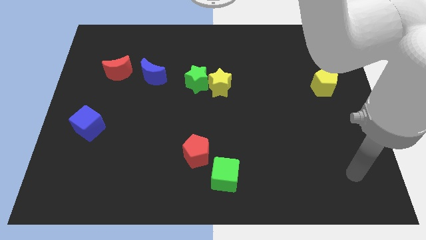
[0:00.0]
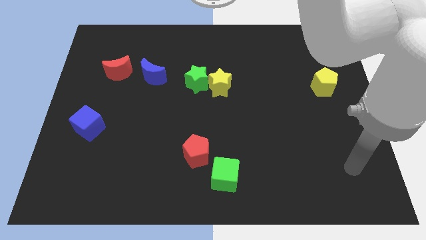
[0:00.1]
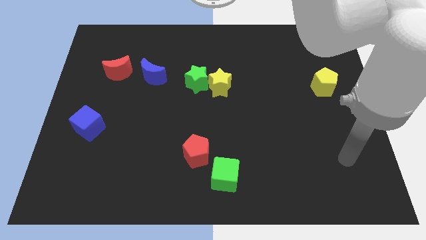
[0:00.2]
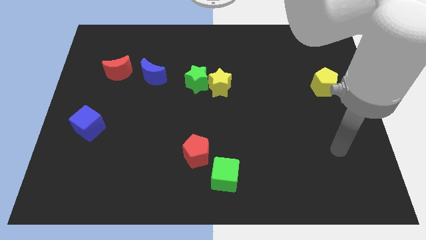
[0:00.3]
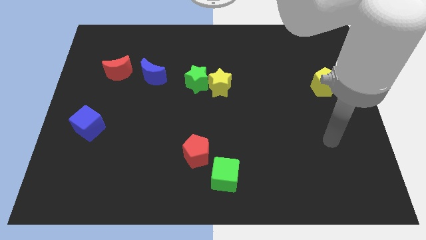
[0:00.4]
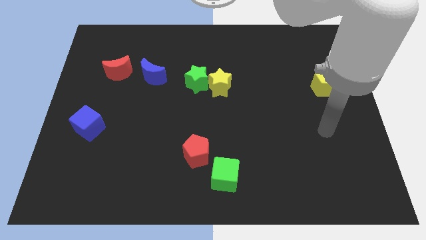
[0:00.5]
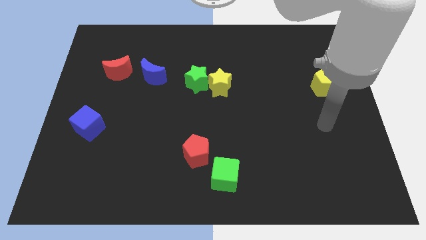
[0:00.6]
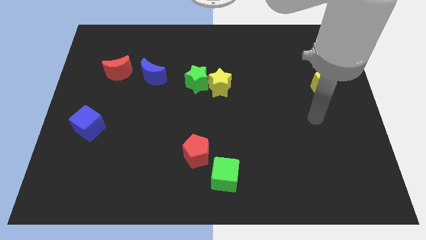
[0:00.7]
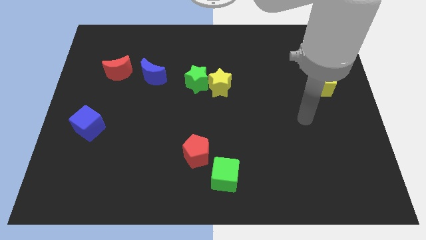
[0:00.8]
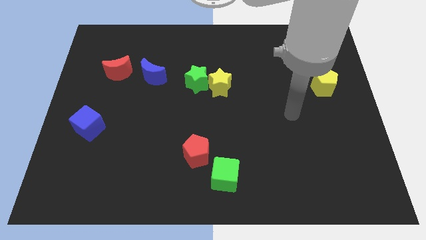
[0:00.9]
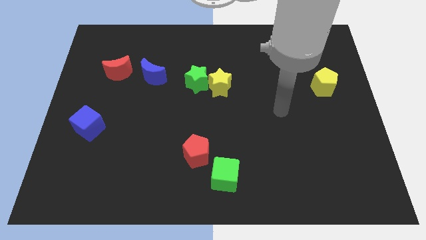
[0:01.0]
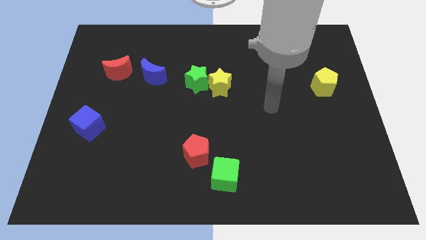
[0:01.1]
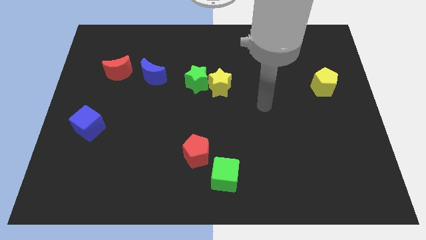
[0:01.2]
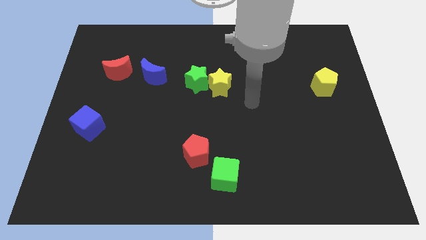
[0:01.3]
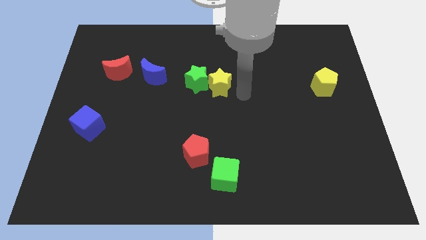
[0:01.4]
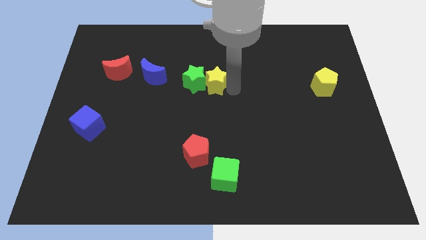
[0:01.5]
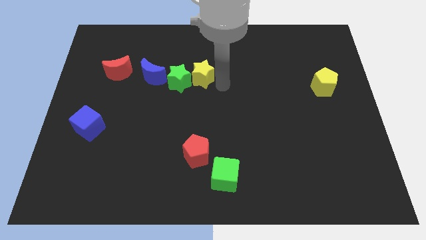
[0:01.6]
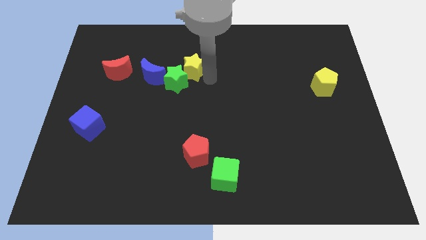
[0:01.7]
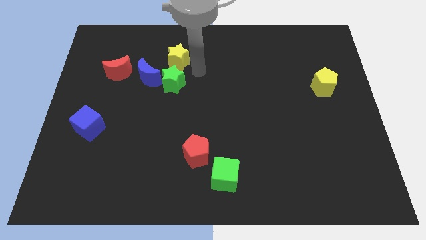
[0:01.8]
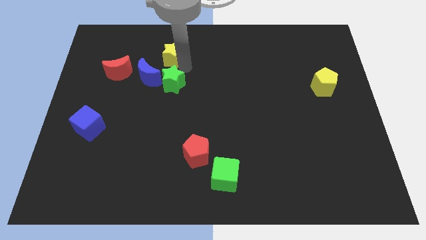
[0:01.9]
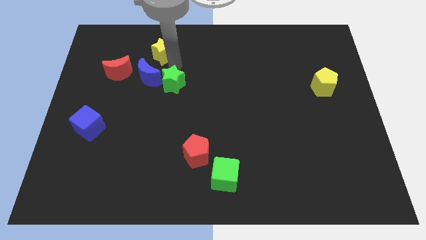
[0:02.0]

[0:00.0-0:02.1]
move the green star away from the yellow star

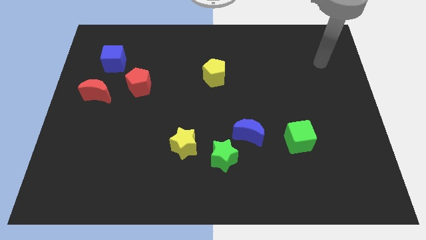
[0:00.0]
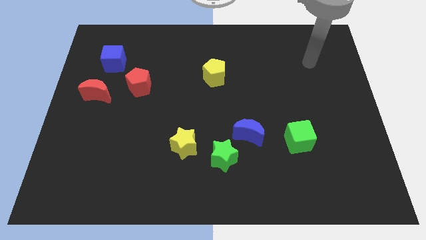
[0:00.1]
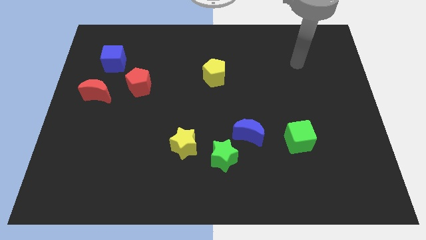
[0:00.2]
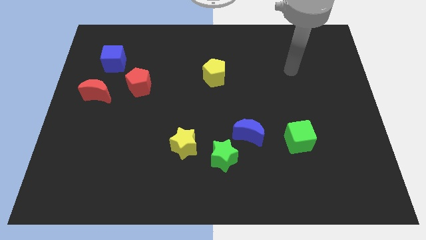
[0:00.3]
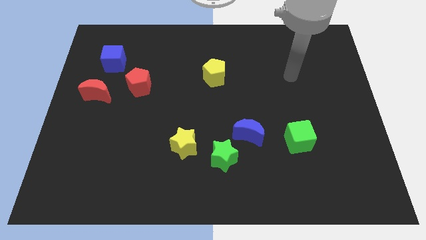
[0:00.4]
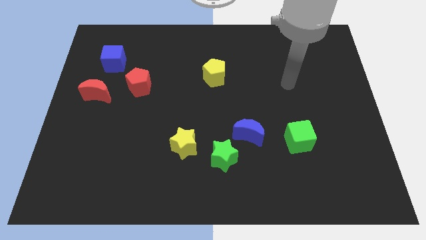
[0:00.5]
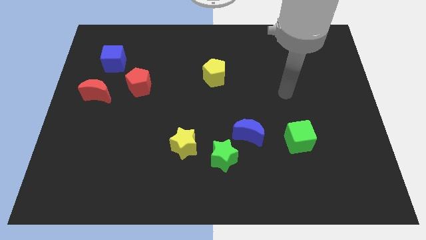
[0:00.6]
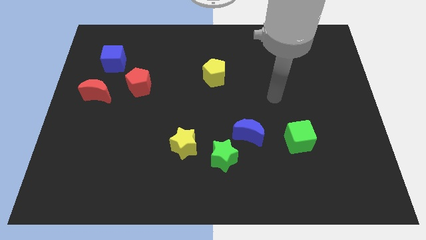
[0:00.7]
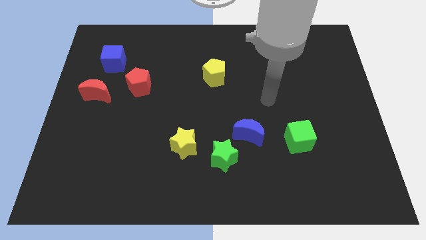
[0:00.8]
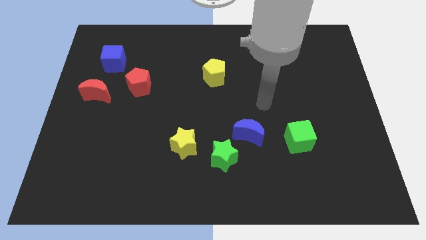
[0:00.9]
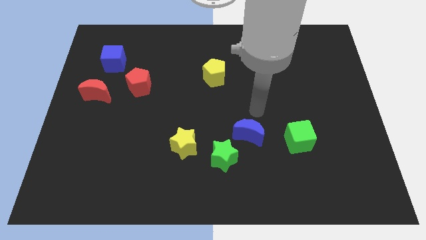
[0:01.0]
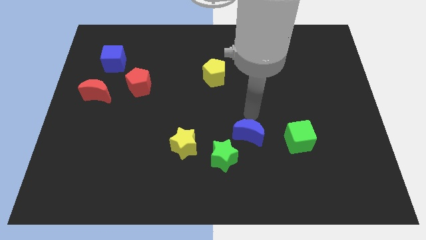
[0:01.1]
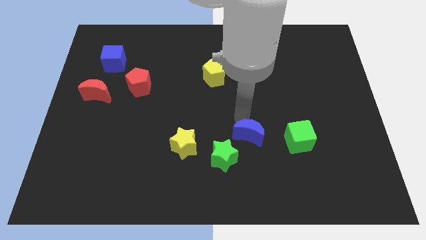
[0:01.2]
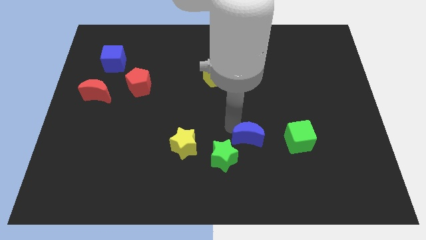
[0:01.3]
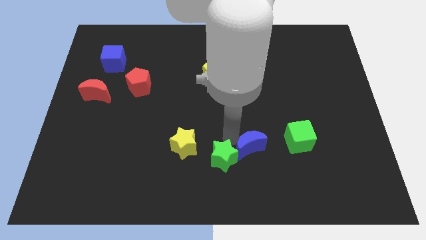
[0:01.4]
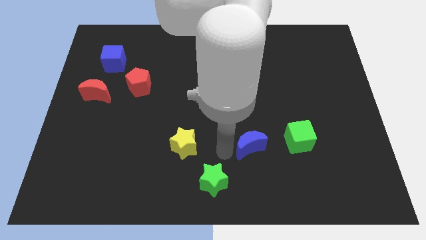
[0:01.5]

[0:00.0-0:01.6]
separate the blue moon from the green star

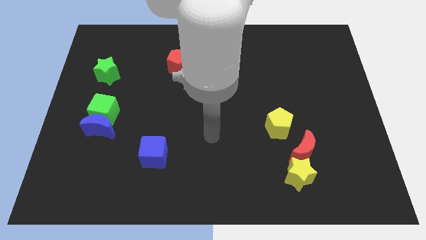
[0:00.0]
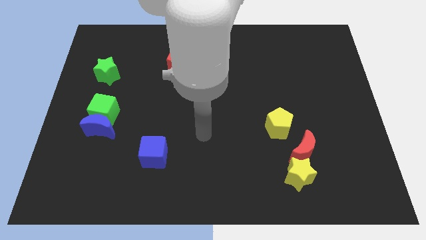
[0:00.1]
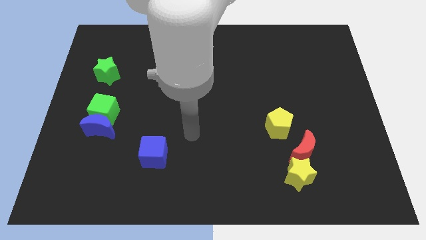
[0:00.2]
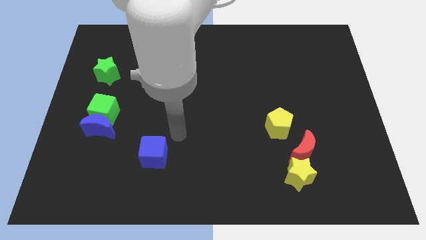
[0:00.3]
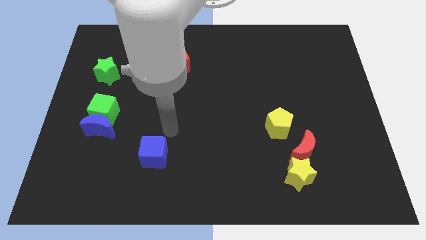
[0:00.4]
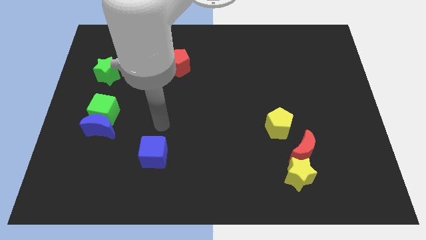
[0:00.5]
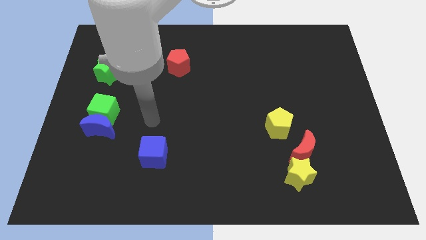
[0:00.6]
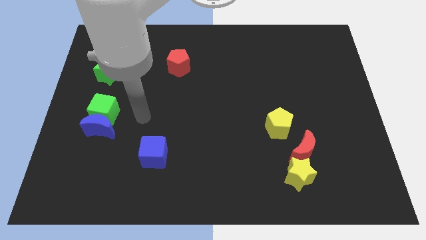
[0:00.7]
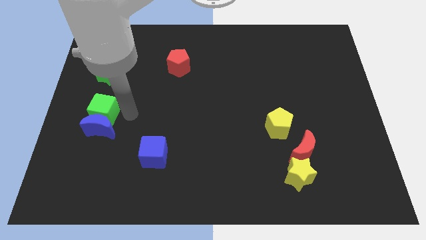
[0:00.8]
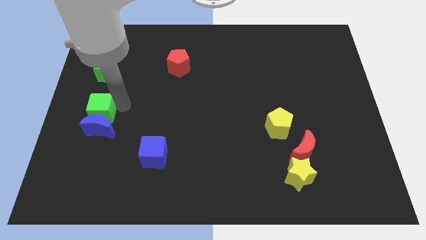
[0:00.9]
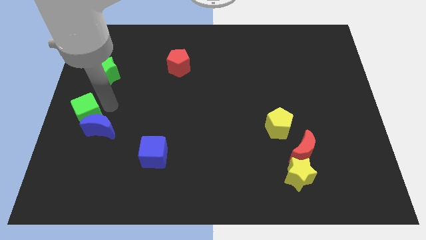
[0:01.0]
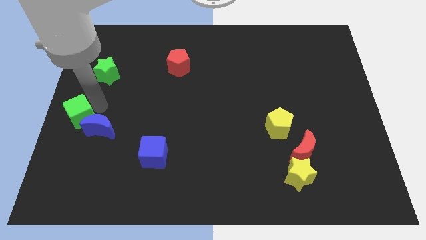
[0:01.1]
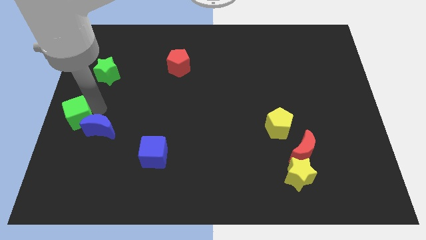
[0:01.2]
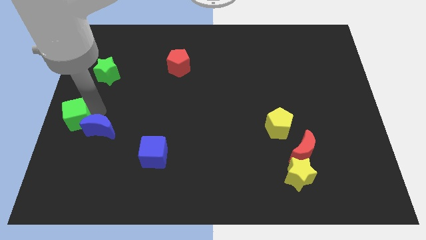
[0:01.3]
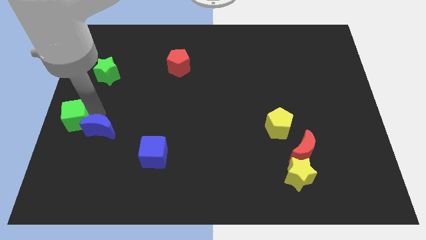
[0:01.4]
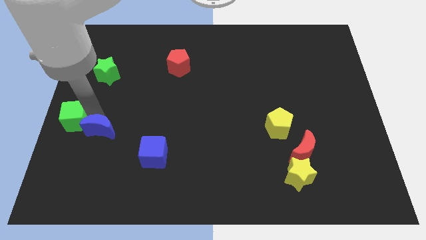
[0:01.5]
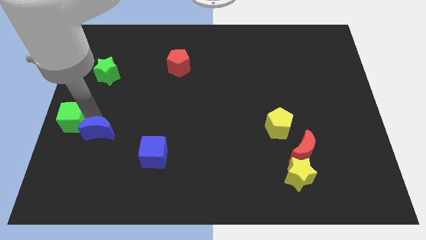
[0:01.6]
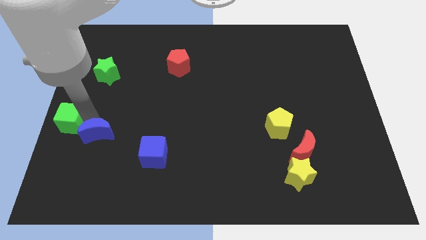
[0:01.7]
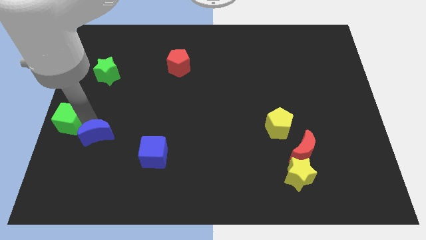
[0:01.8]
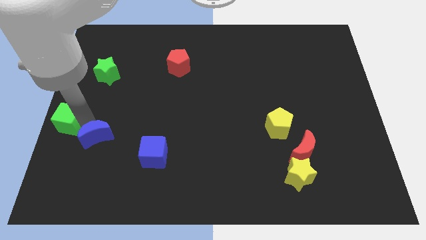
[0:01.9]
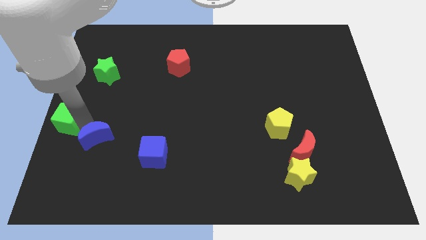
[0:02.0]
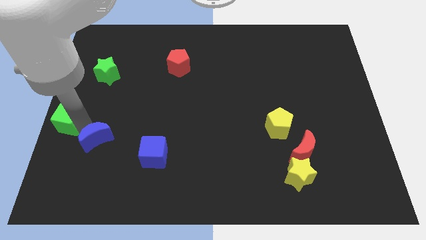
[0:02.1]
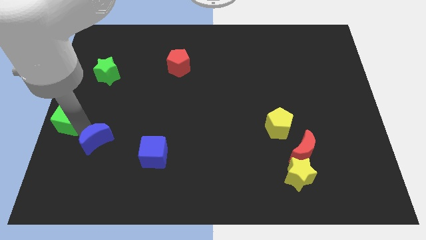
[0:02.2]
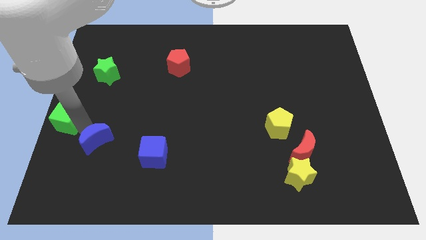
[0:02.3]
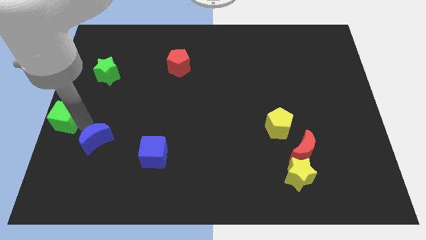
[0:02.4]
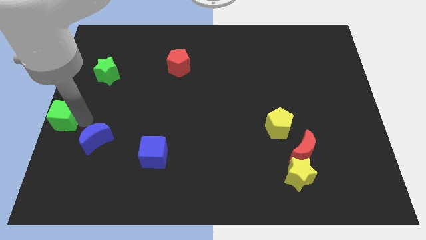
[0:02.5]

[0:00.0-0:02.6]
separate the blue moon from the green cube

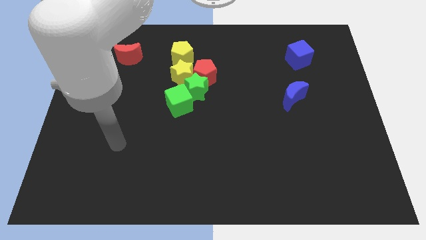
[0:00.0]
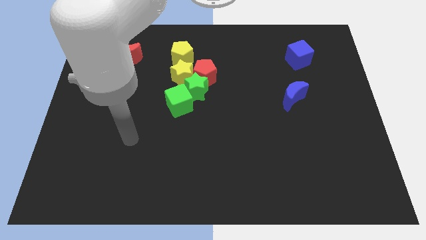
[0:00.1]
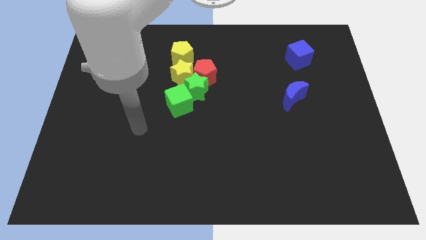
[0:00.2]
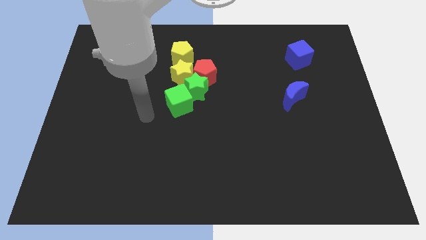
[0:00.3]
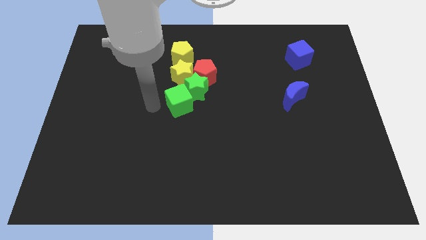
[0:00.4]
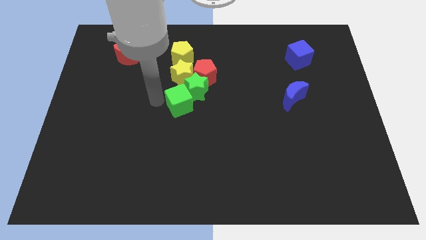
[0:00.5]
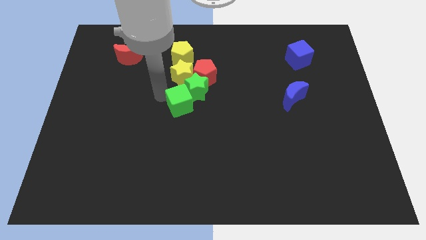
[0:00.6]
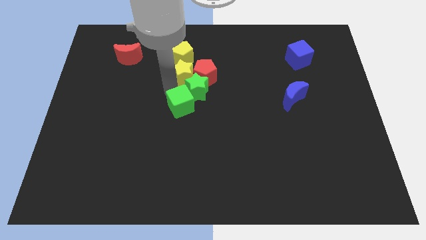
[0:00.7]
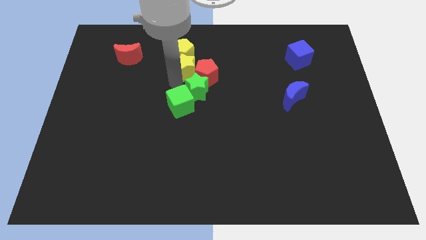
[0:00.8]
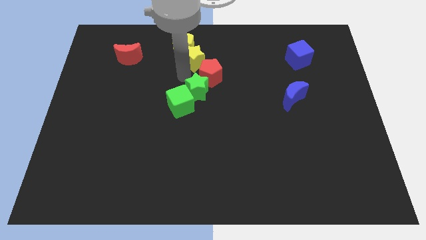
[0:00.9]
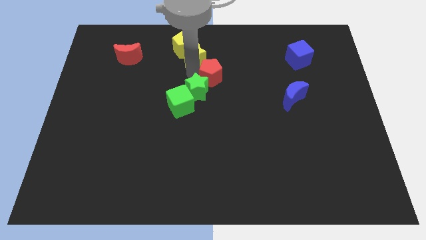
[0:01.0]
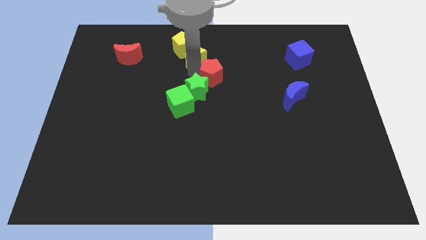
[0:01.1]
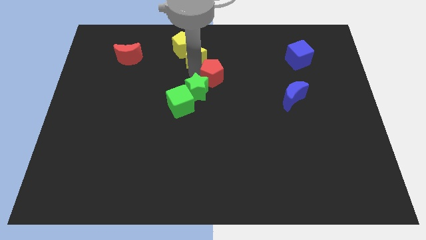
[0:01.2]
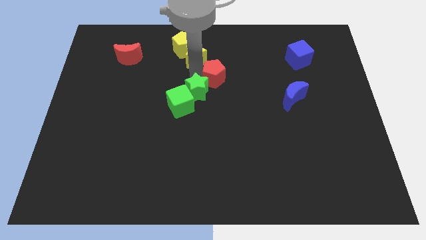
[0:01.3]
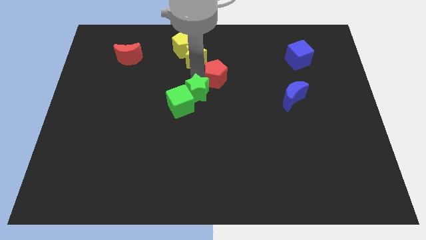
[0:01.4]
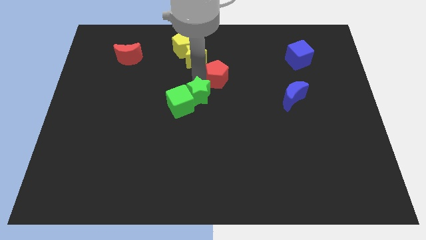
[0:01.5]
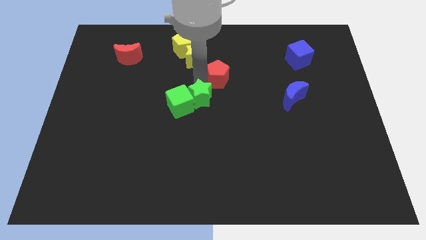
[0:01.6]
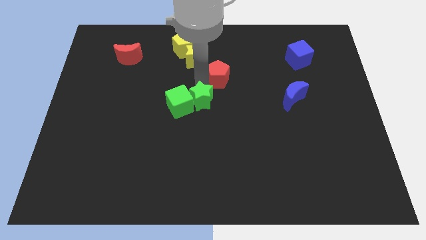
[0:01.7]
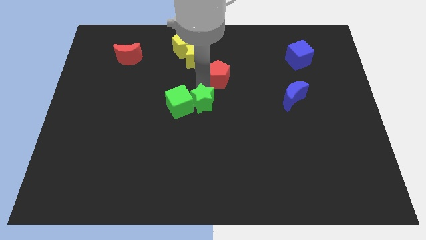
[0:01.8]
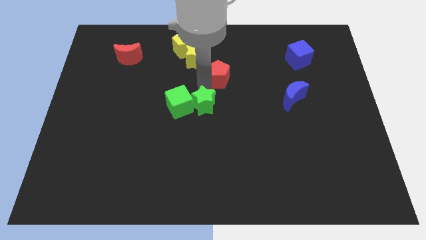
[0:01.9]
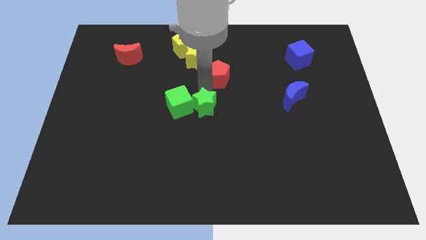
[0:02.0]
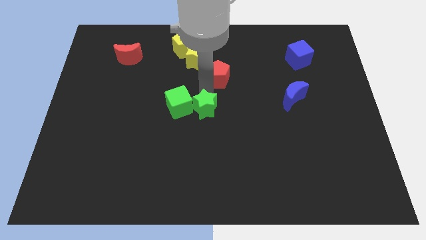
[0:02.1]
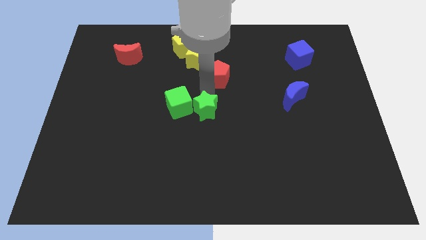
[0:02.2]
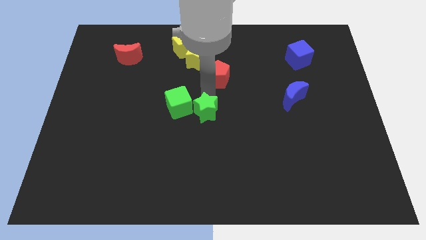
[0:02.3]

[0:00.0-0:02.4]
separate the green star from the red pentagon, green cube, and yellow star

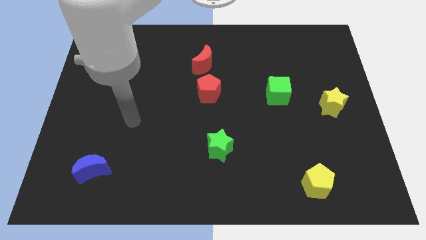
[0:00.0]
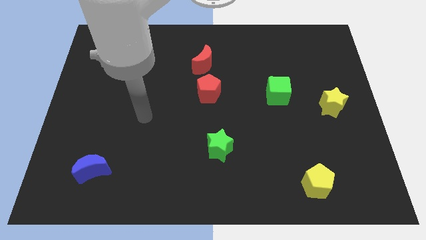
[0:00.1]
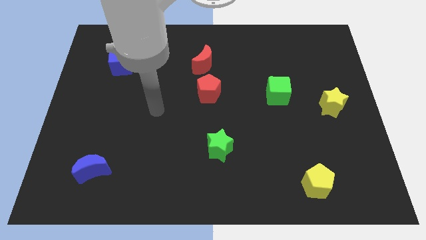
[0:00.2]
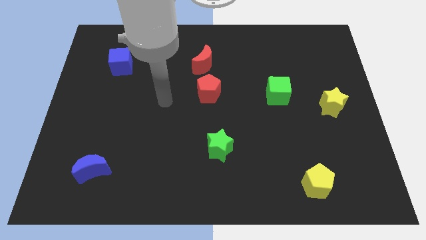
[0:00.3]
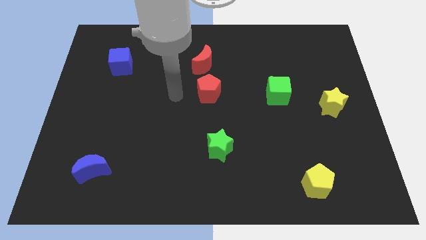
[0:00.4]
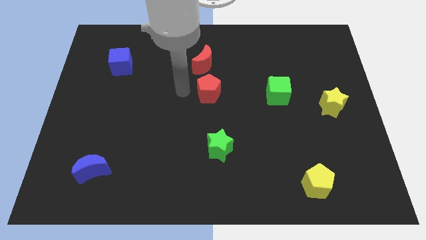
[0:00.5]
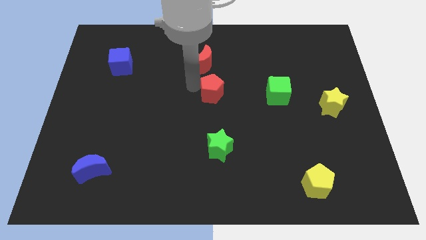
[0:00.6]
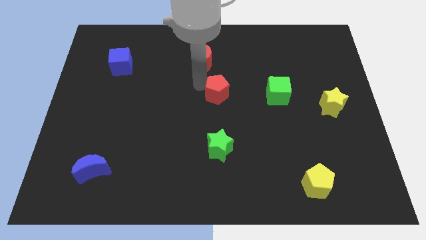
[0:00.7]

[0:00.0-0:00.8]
pull the red moon apart from the red pentagon
